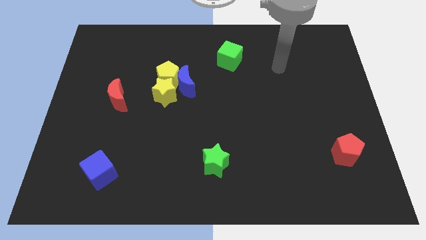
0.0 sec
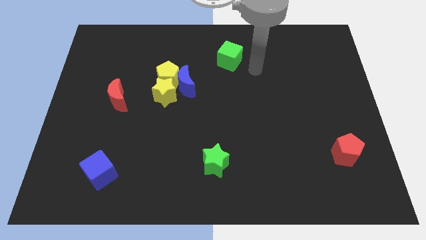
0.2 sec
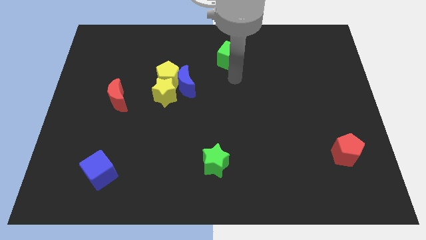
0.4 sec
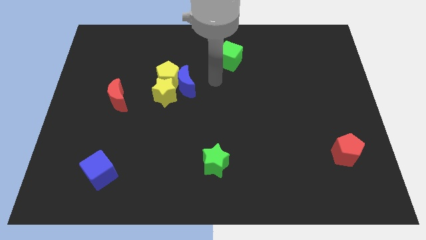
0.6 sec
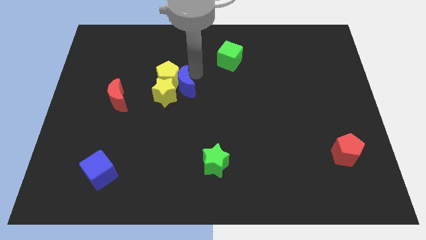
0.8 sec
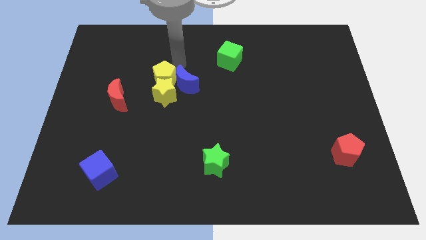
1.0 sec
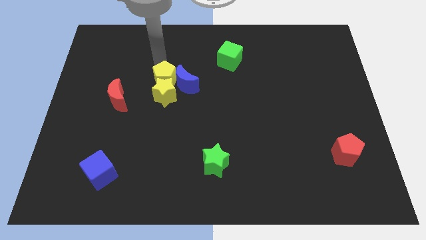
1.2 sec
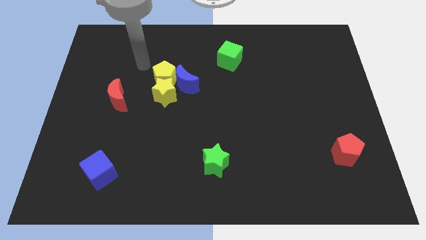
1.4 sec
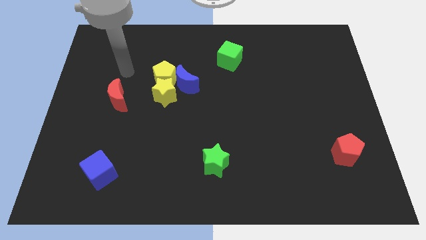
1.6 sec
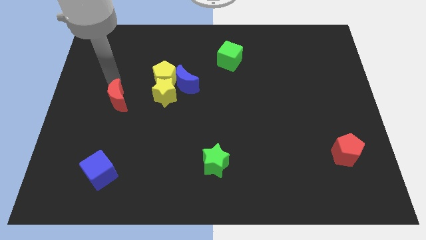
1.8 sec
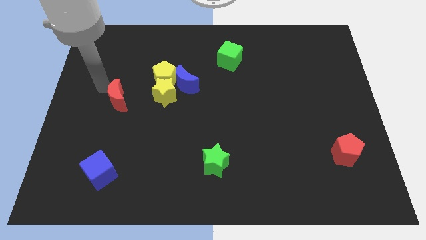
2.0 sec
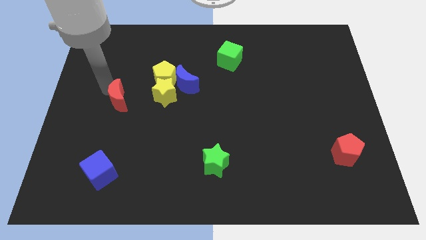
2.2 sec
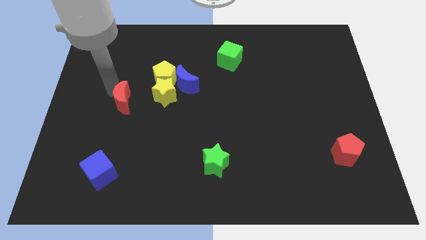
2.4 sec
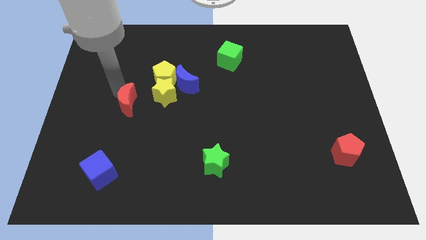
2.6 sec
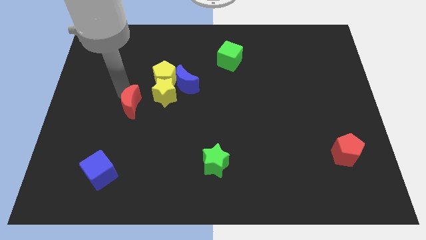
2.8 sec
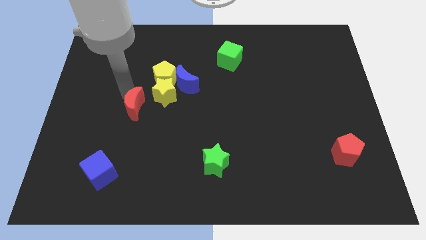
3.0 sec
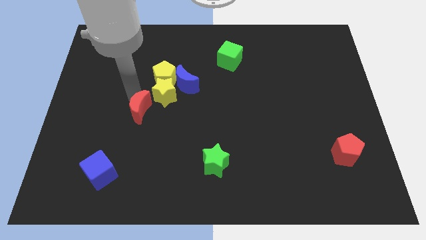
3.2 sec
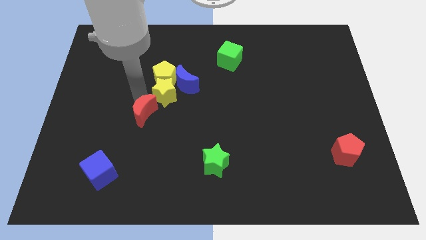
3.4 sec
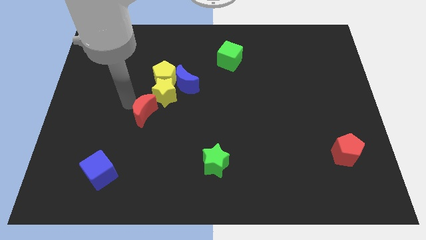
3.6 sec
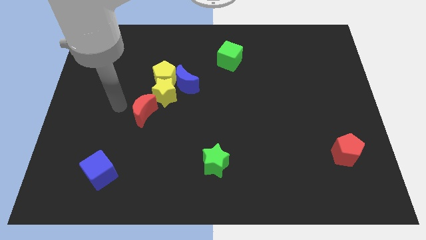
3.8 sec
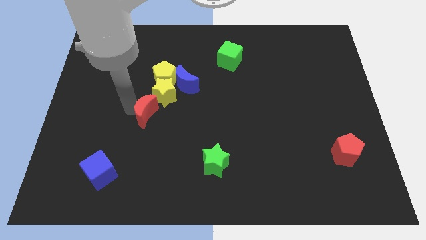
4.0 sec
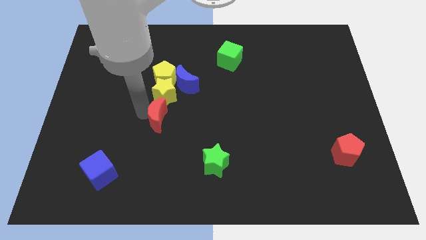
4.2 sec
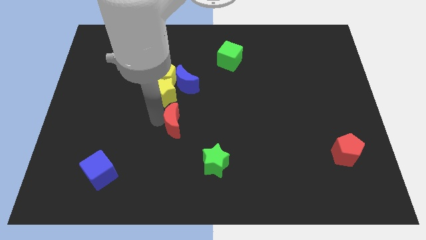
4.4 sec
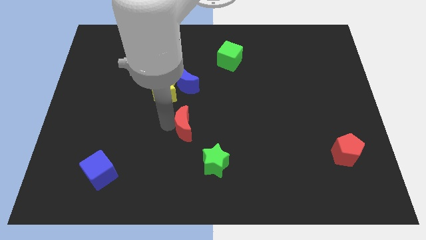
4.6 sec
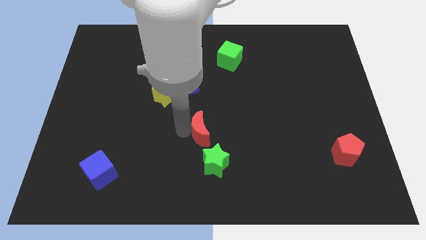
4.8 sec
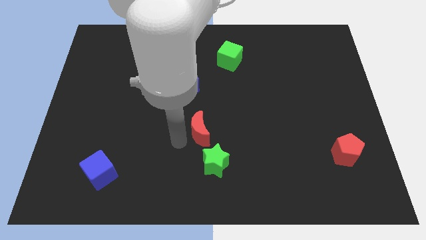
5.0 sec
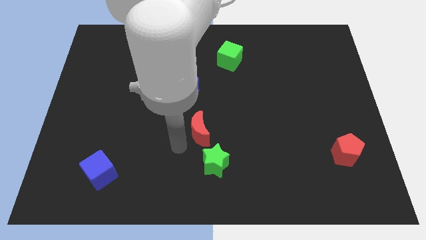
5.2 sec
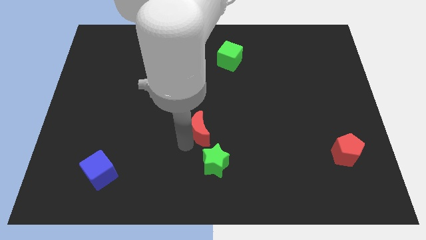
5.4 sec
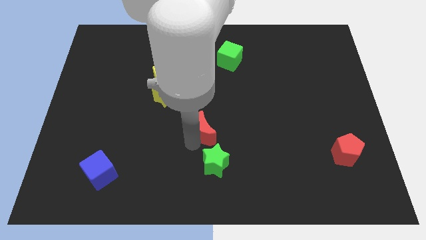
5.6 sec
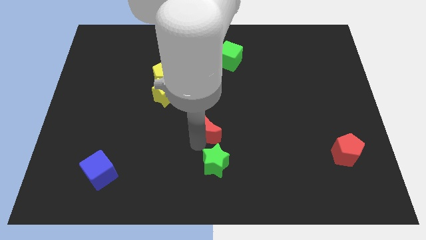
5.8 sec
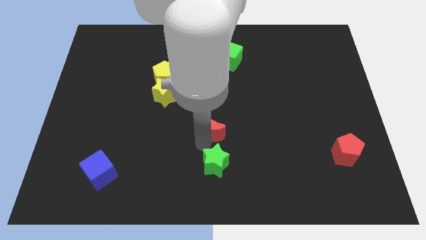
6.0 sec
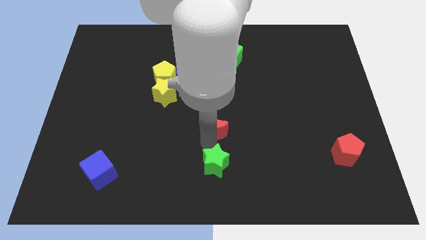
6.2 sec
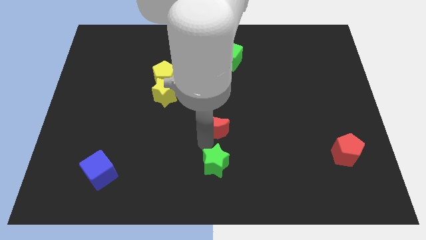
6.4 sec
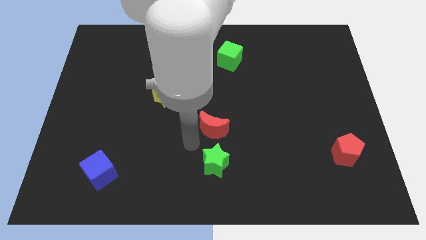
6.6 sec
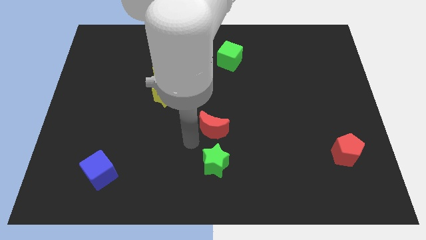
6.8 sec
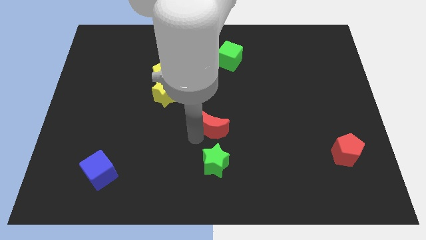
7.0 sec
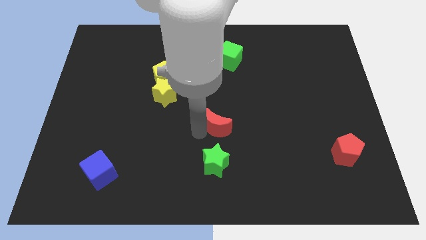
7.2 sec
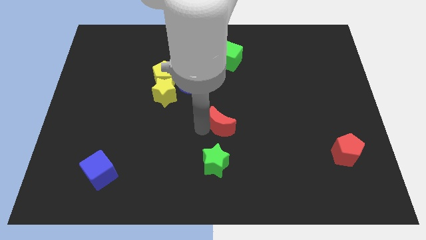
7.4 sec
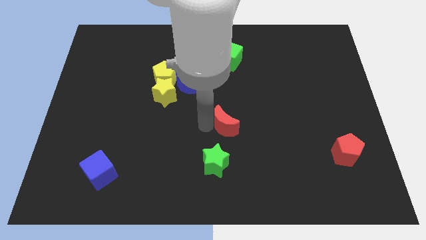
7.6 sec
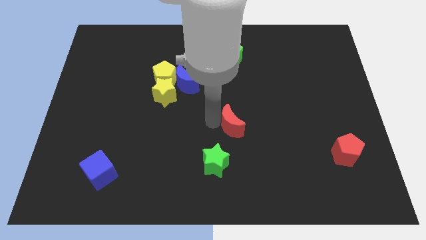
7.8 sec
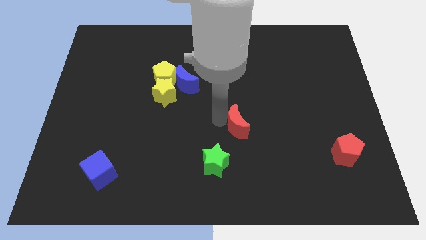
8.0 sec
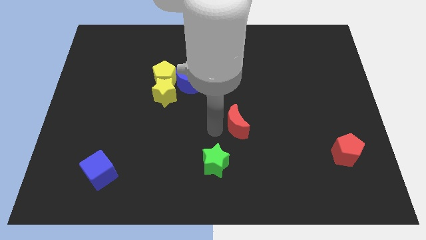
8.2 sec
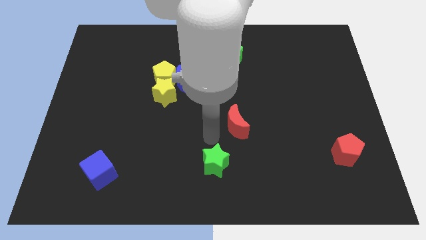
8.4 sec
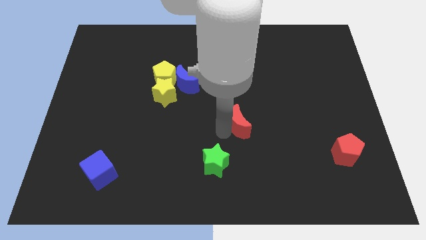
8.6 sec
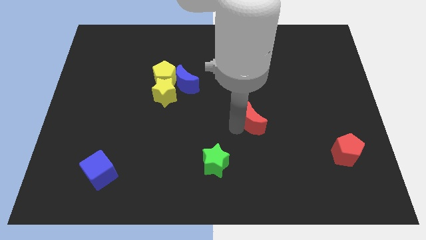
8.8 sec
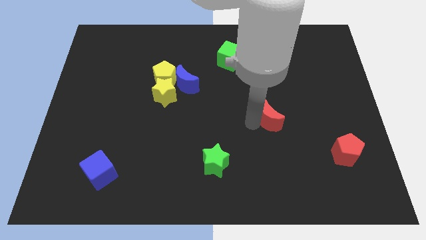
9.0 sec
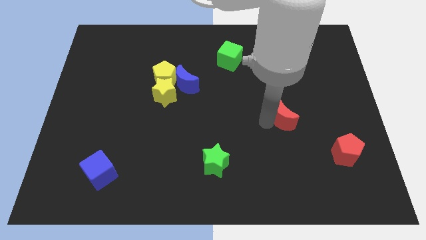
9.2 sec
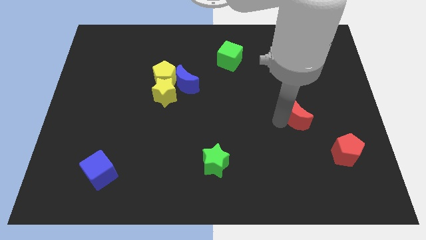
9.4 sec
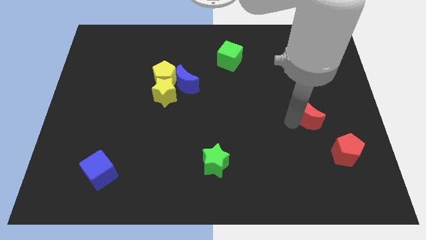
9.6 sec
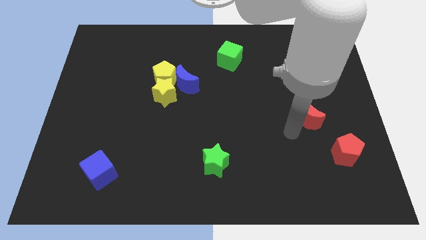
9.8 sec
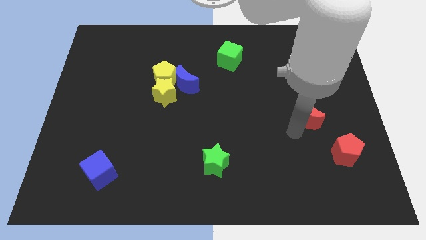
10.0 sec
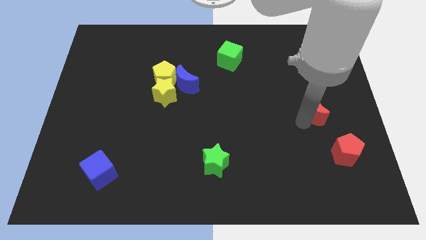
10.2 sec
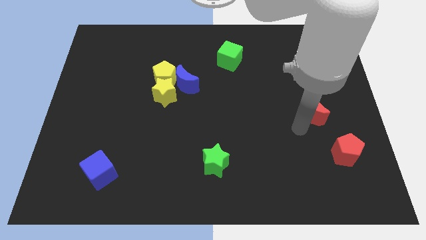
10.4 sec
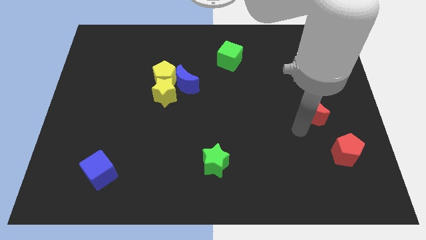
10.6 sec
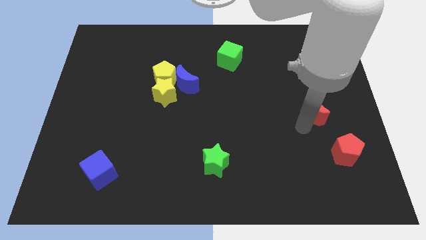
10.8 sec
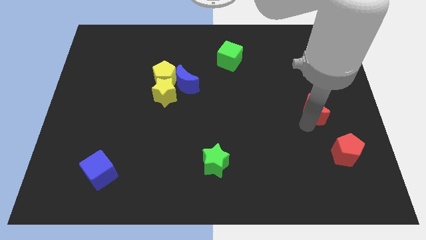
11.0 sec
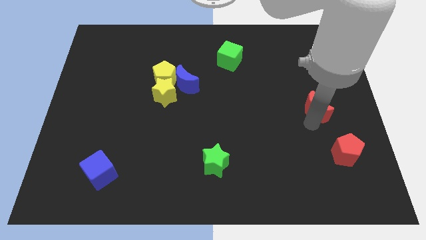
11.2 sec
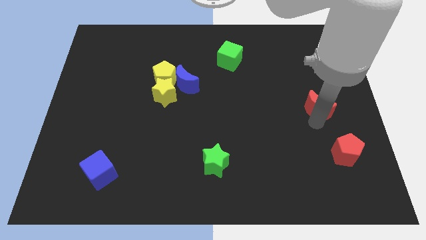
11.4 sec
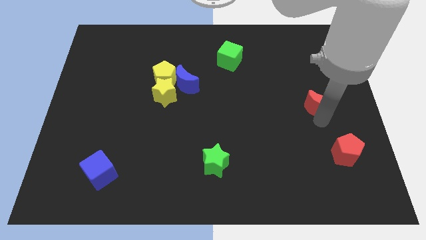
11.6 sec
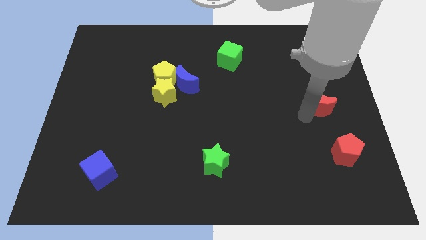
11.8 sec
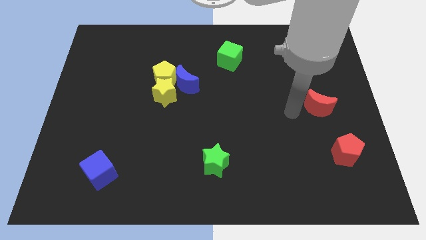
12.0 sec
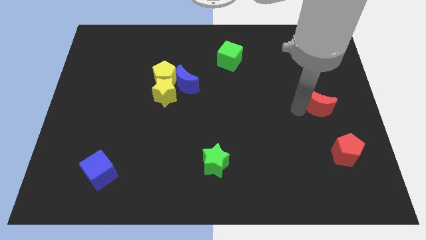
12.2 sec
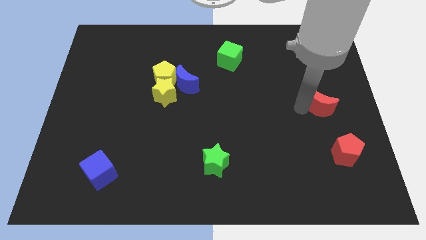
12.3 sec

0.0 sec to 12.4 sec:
slide the red moon to the center right

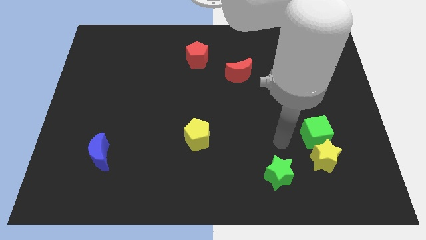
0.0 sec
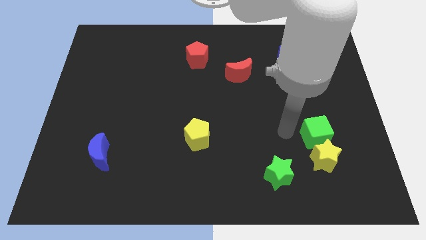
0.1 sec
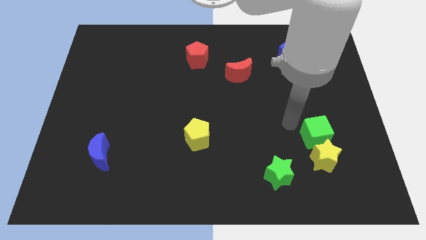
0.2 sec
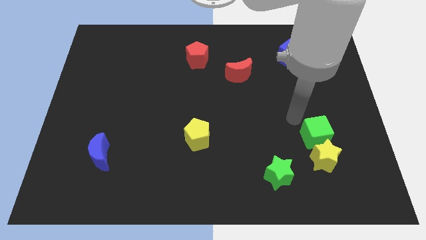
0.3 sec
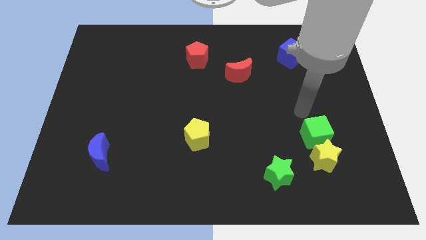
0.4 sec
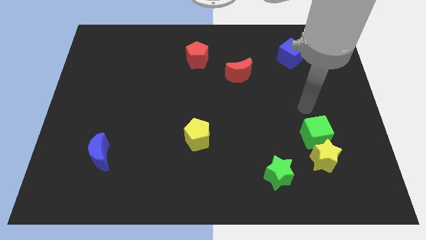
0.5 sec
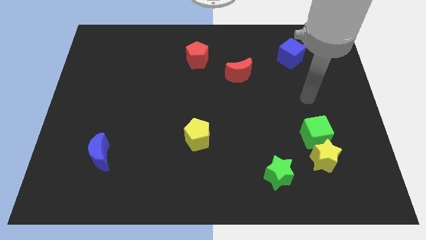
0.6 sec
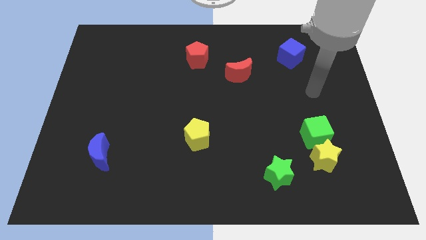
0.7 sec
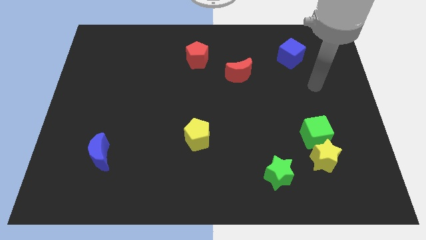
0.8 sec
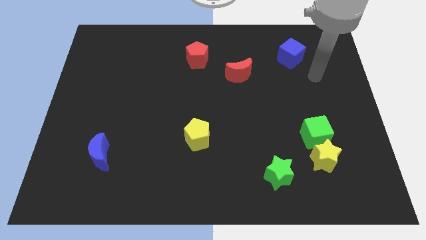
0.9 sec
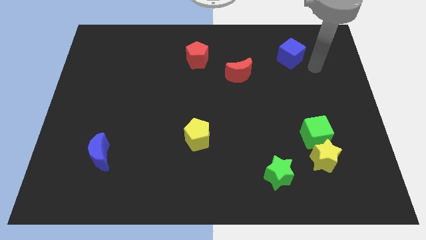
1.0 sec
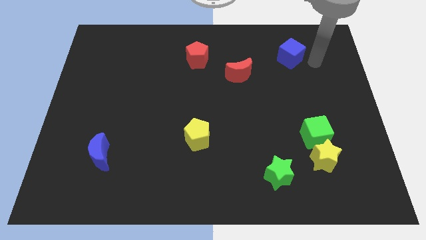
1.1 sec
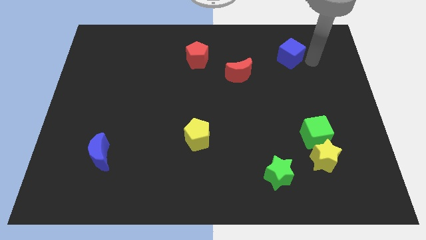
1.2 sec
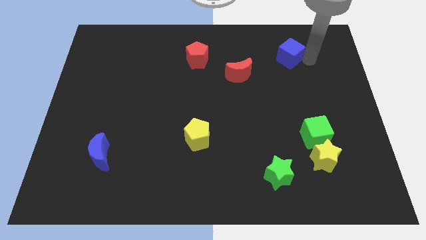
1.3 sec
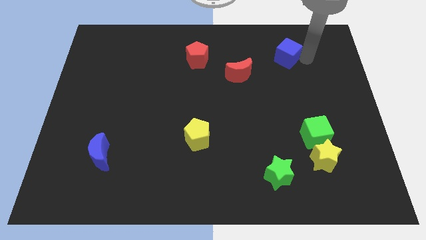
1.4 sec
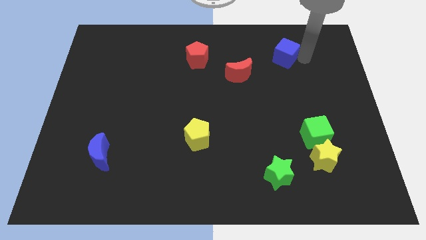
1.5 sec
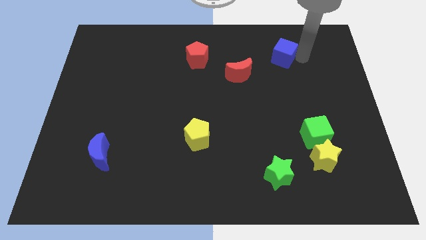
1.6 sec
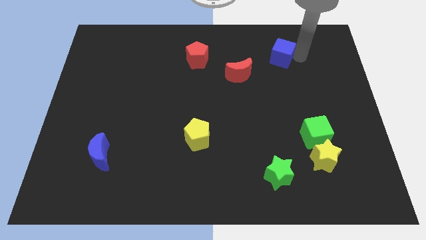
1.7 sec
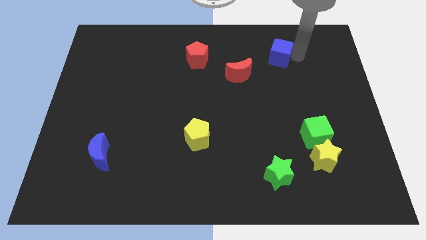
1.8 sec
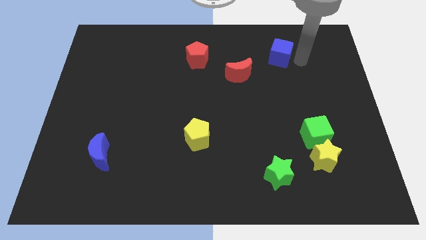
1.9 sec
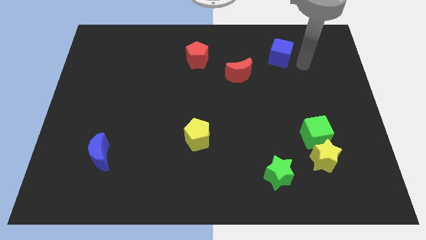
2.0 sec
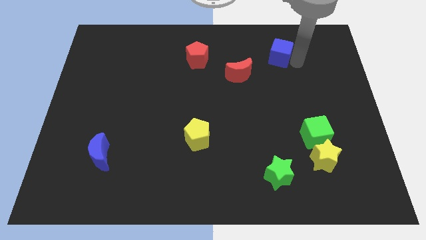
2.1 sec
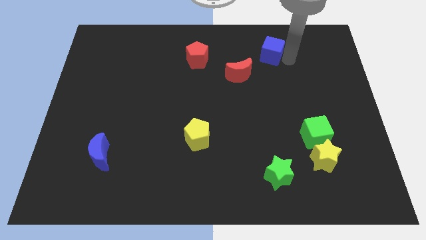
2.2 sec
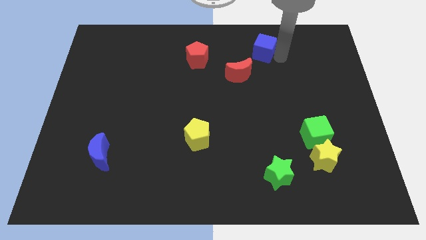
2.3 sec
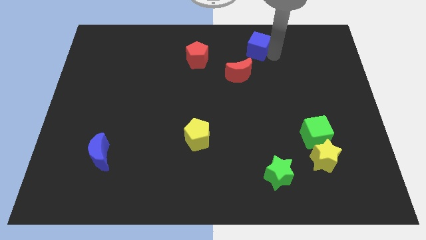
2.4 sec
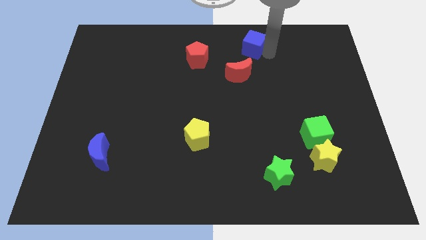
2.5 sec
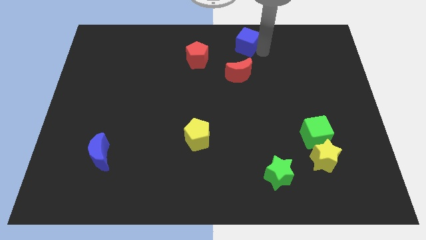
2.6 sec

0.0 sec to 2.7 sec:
put the blue cube to the top
